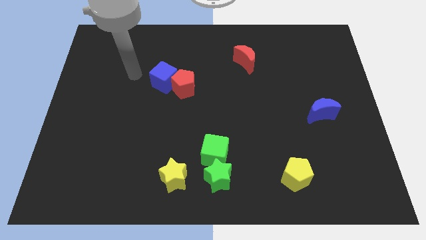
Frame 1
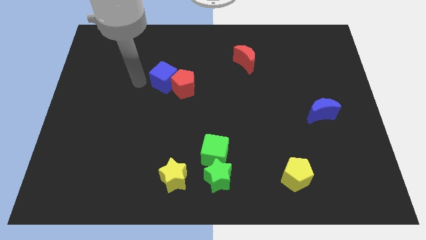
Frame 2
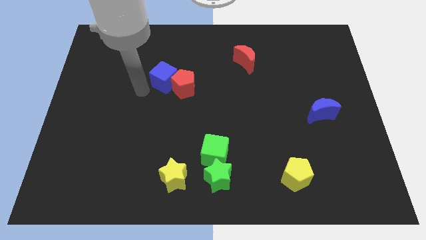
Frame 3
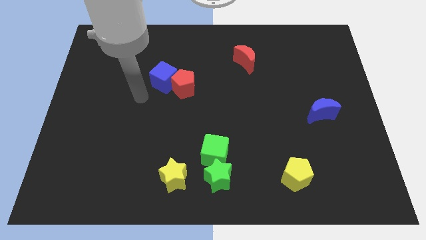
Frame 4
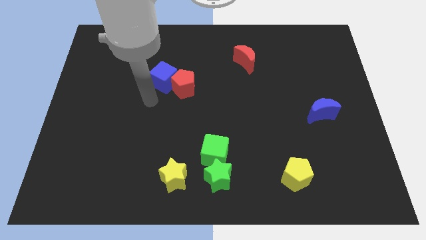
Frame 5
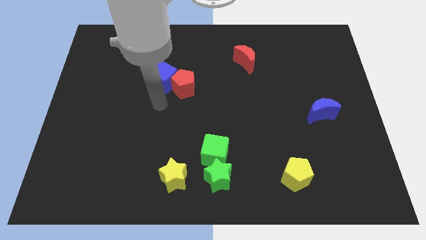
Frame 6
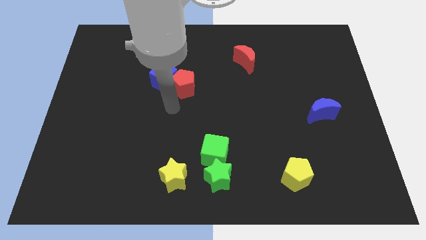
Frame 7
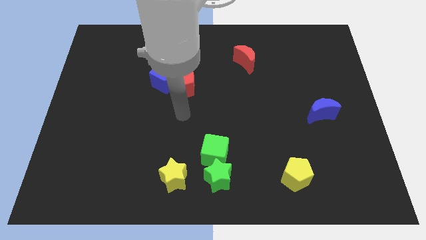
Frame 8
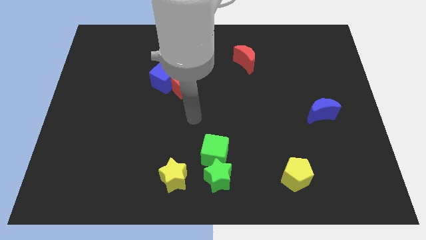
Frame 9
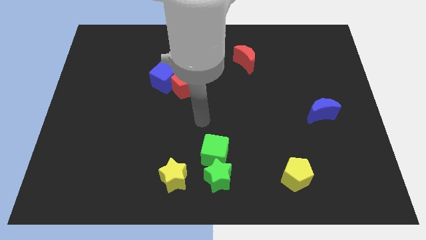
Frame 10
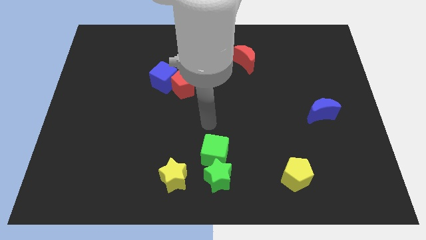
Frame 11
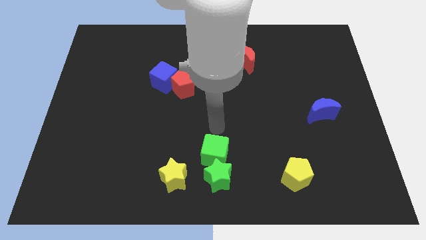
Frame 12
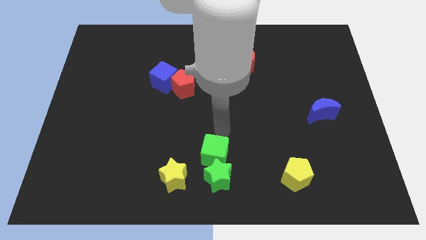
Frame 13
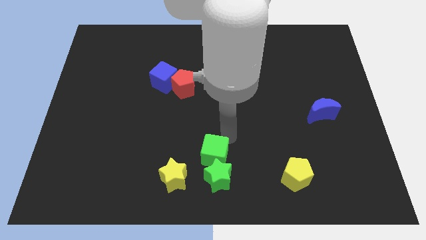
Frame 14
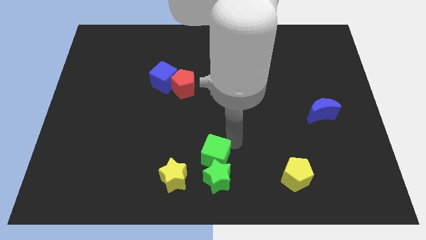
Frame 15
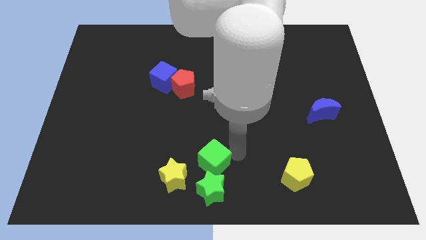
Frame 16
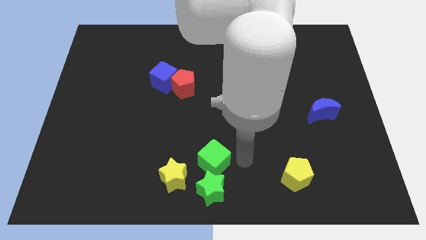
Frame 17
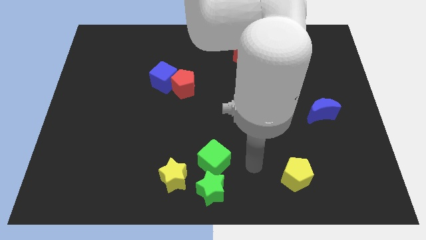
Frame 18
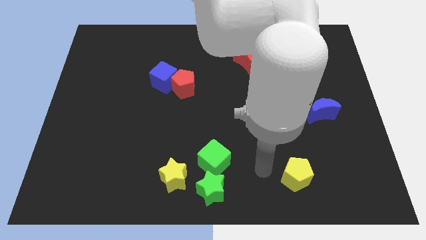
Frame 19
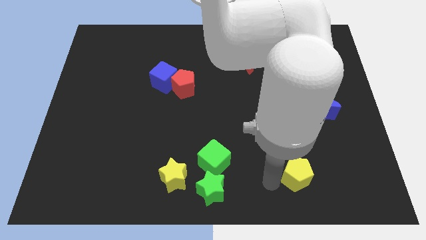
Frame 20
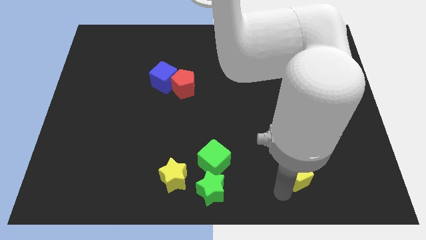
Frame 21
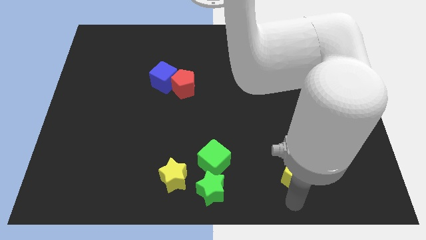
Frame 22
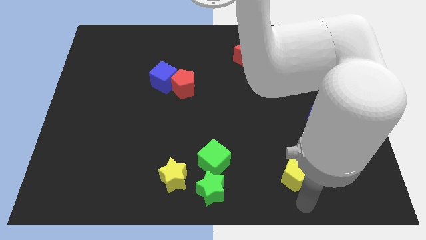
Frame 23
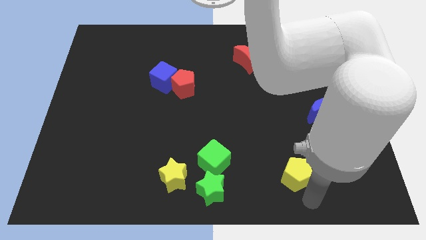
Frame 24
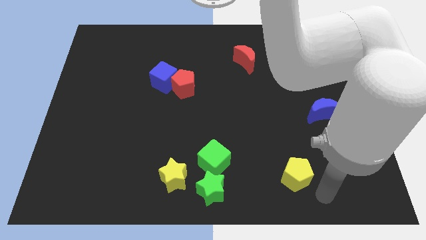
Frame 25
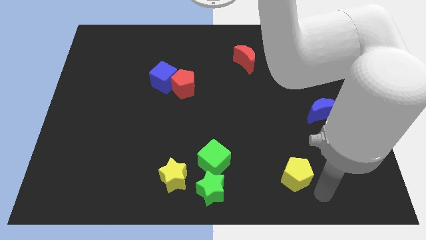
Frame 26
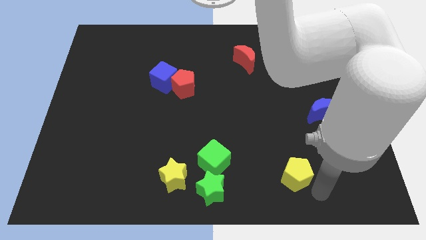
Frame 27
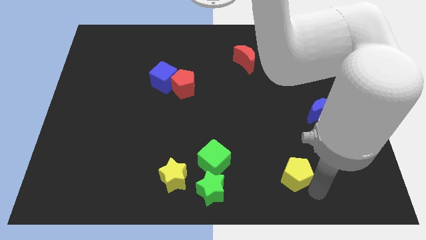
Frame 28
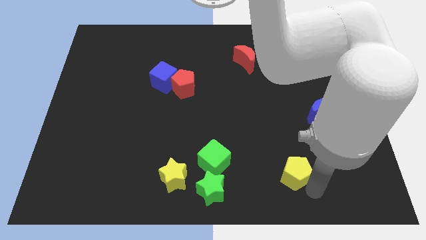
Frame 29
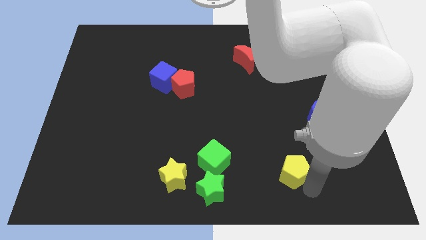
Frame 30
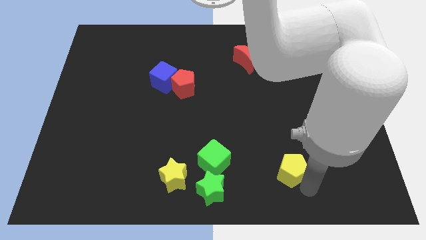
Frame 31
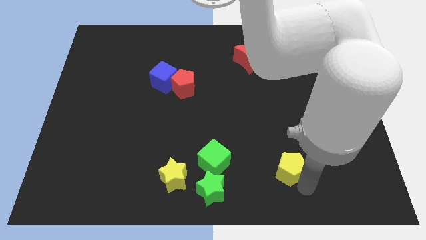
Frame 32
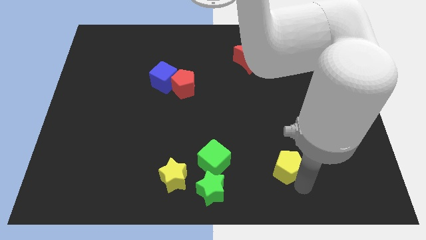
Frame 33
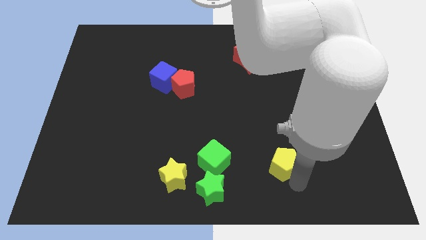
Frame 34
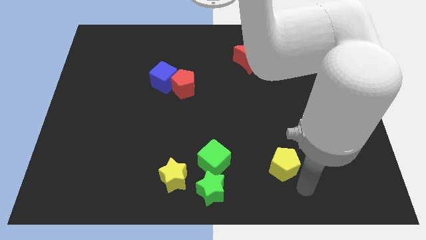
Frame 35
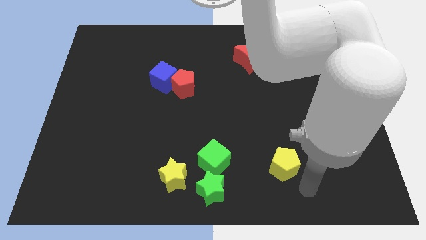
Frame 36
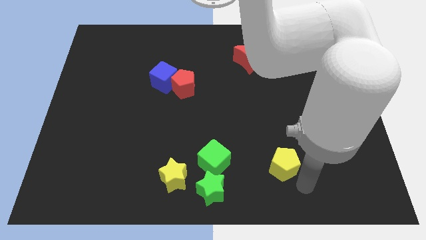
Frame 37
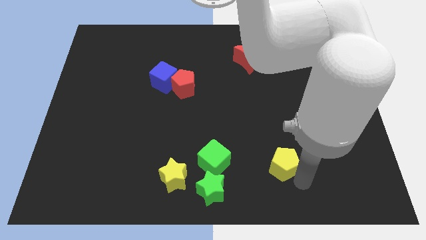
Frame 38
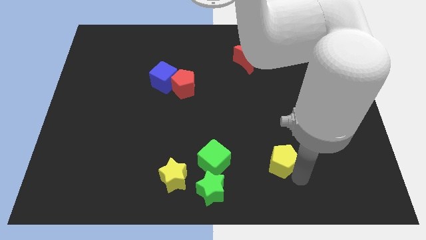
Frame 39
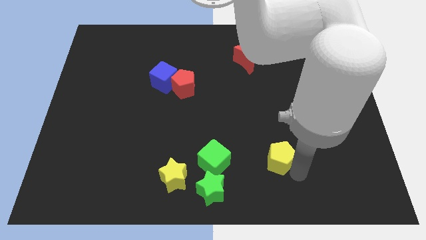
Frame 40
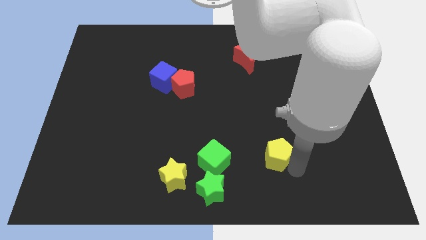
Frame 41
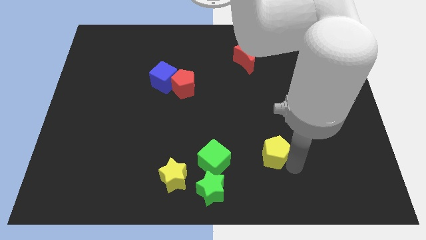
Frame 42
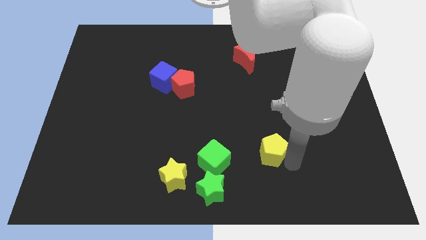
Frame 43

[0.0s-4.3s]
slightly slide the yellow pentagon upwards and left diagonally

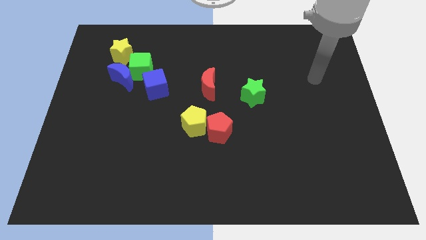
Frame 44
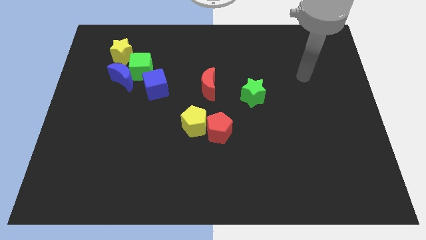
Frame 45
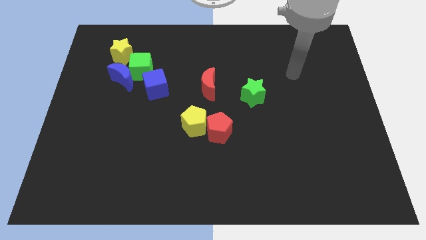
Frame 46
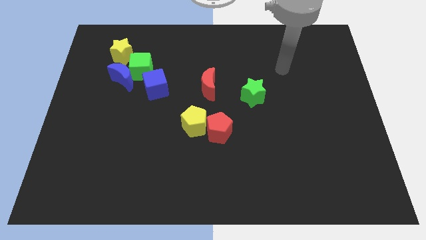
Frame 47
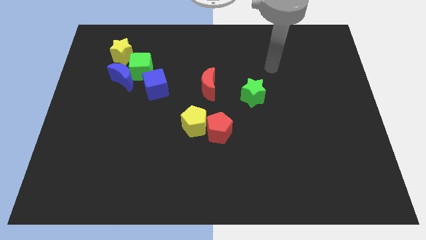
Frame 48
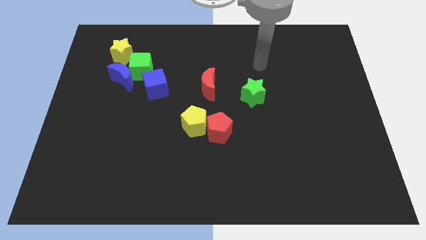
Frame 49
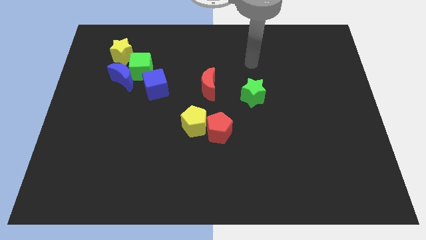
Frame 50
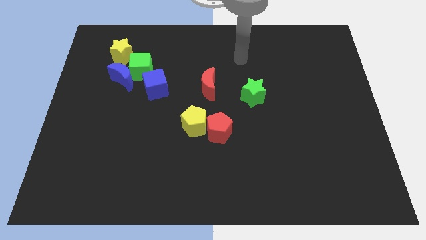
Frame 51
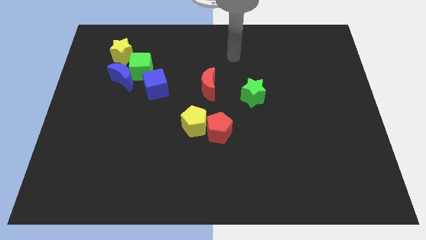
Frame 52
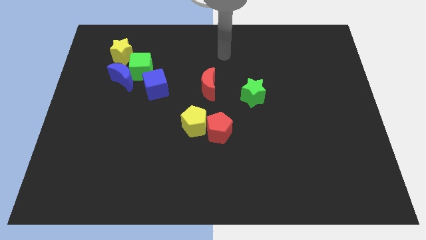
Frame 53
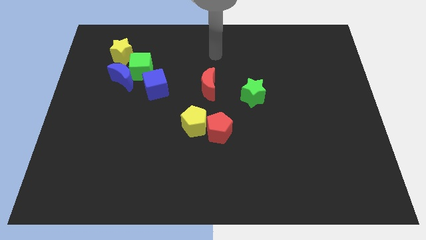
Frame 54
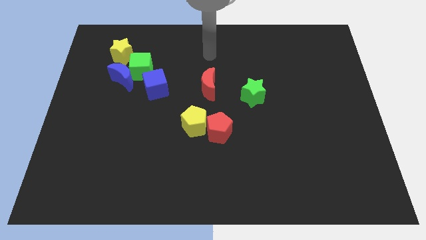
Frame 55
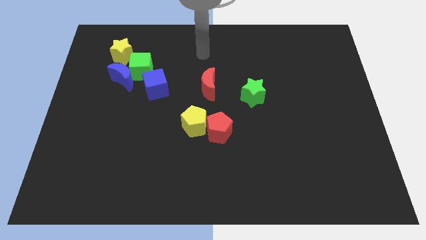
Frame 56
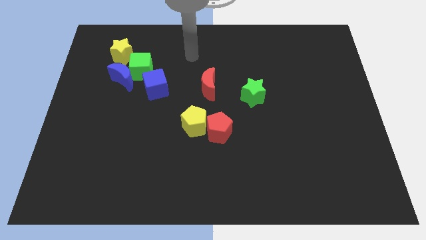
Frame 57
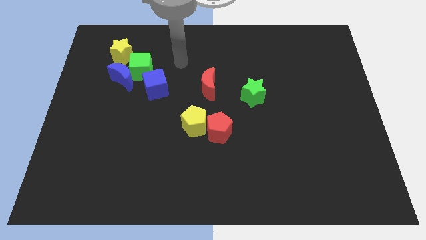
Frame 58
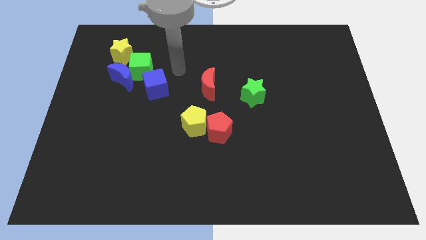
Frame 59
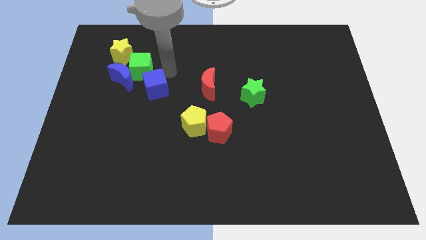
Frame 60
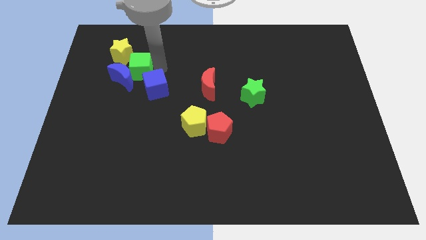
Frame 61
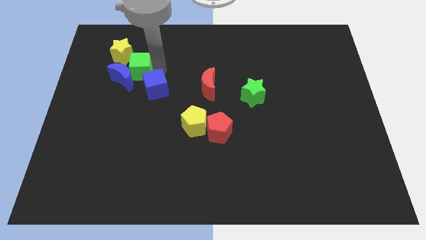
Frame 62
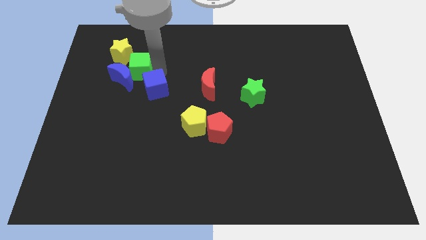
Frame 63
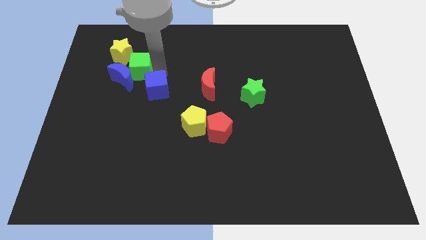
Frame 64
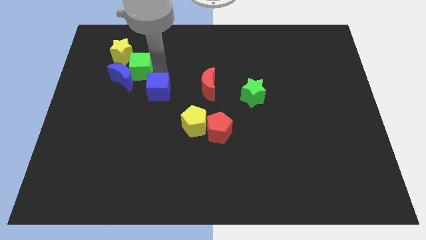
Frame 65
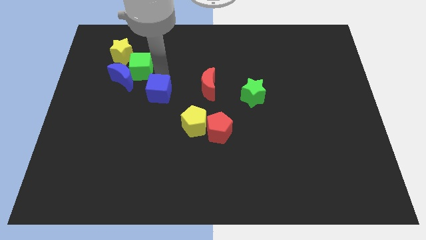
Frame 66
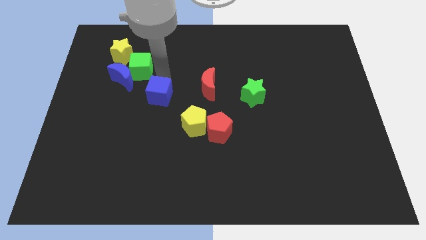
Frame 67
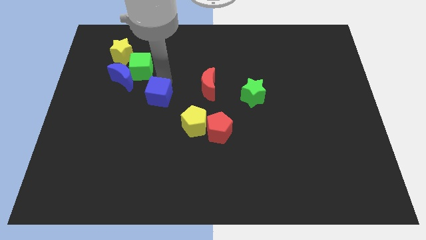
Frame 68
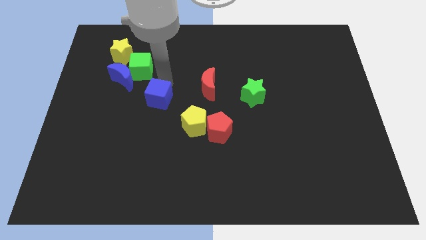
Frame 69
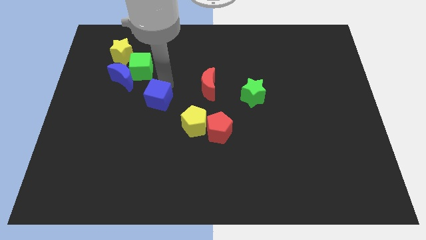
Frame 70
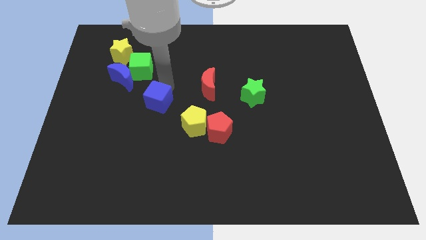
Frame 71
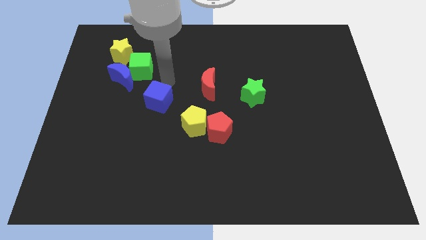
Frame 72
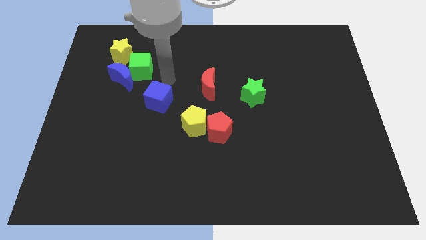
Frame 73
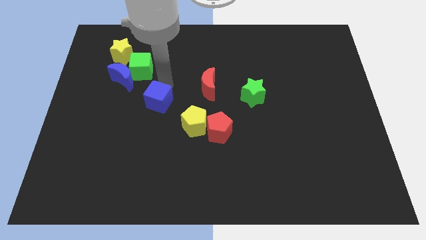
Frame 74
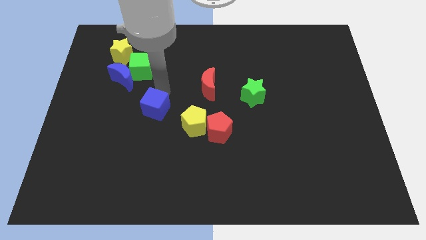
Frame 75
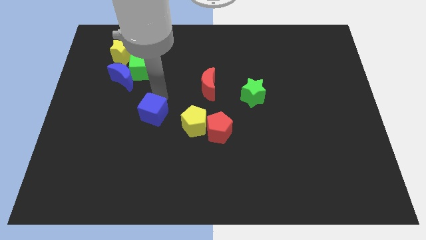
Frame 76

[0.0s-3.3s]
slightly slide the blue cube down

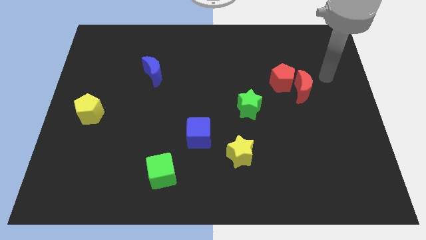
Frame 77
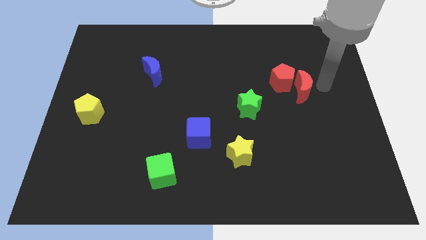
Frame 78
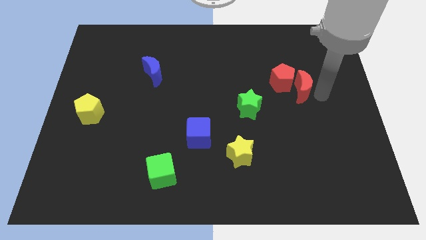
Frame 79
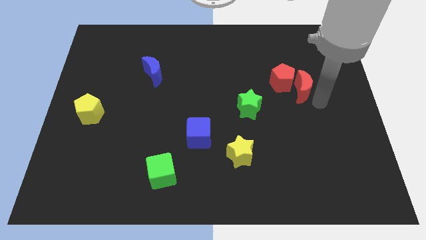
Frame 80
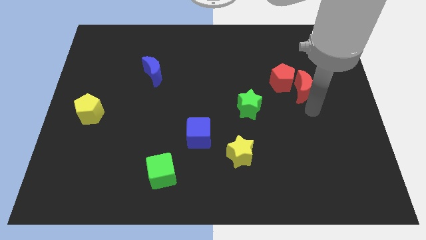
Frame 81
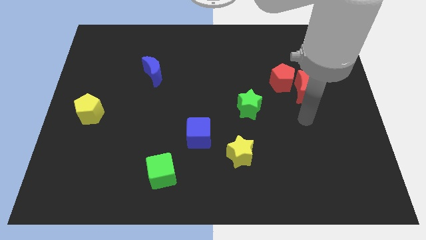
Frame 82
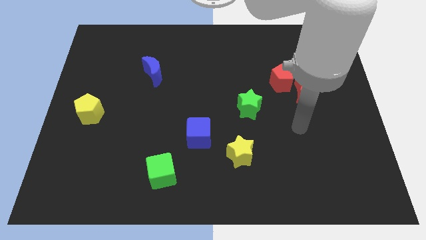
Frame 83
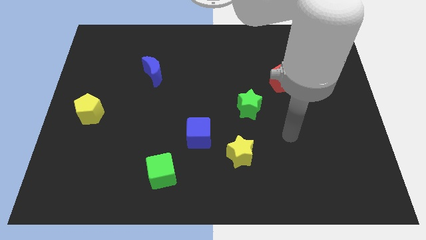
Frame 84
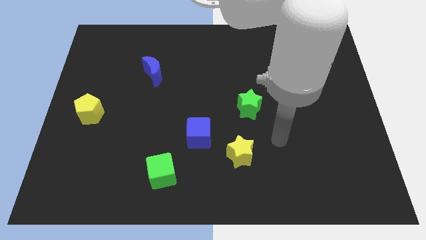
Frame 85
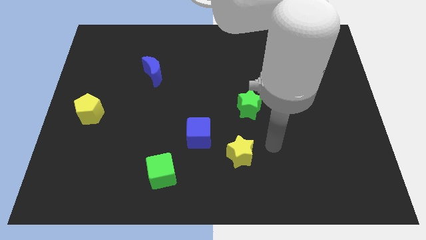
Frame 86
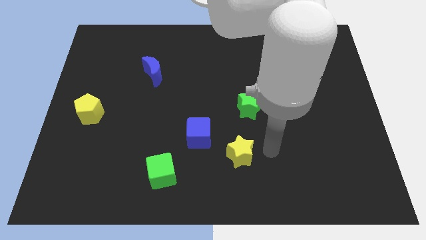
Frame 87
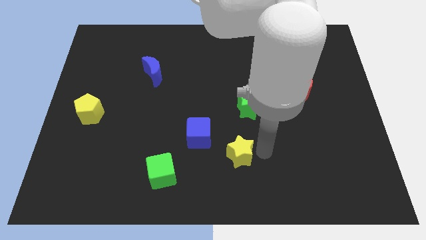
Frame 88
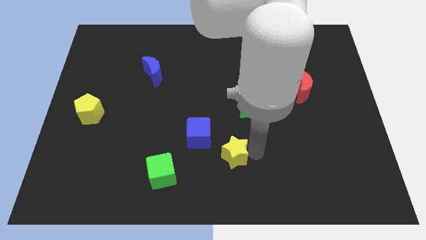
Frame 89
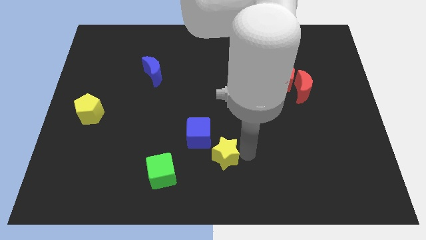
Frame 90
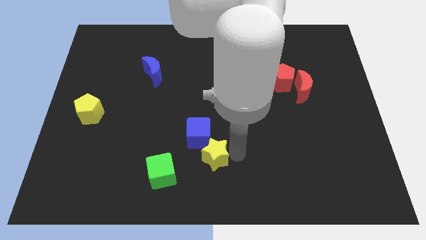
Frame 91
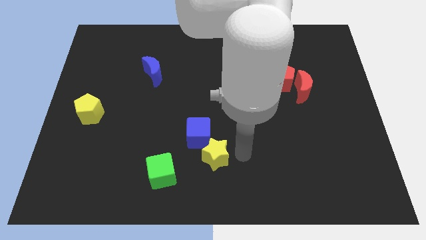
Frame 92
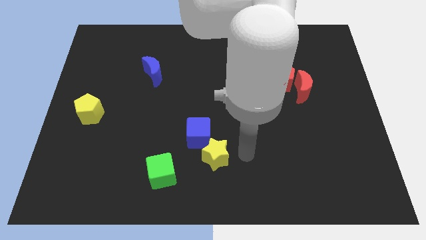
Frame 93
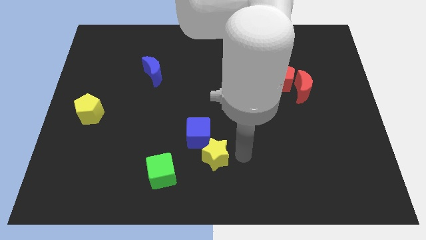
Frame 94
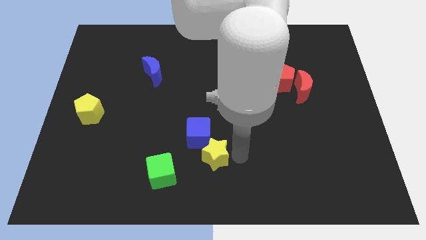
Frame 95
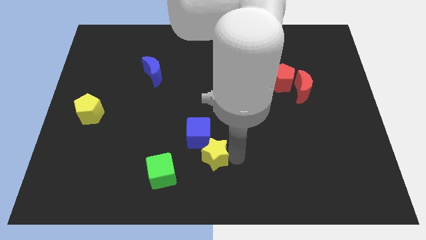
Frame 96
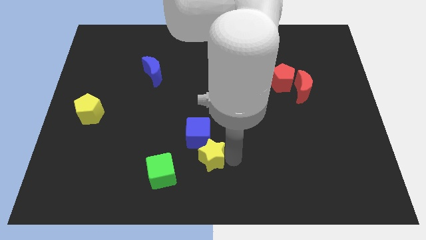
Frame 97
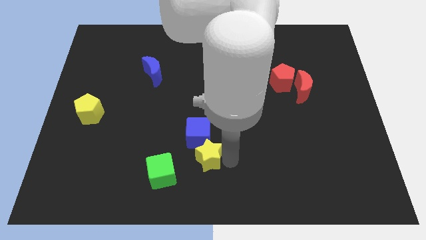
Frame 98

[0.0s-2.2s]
push the yellow star a little left
